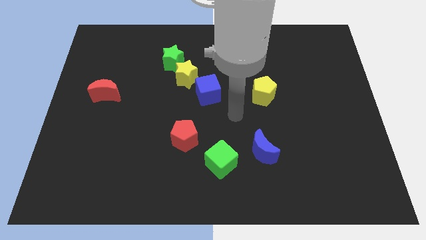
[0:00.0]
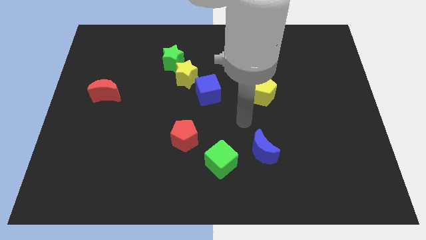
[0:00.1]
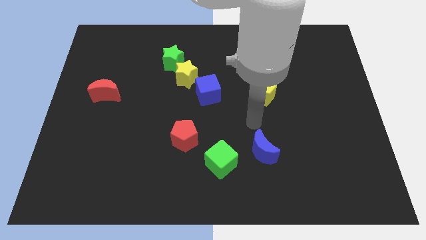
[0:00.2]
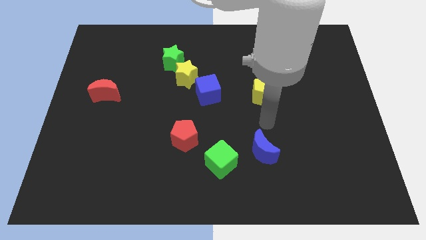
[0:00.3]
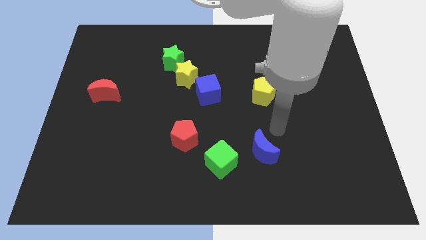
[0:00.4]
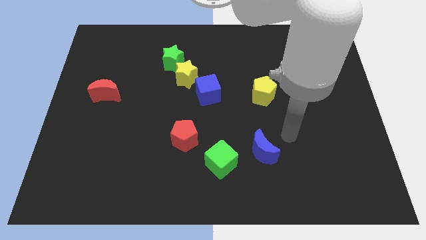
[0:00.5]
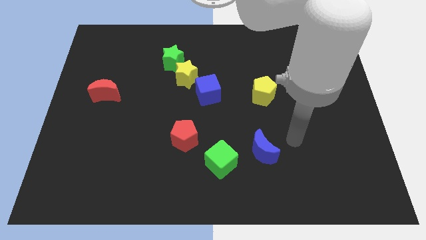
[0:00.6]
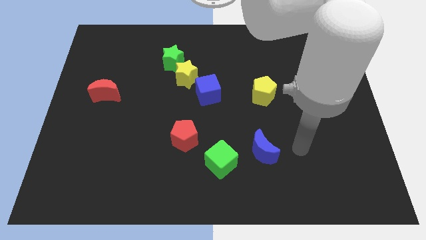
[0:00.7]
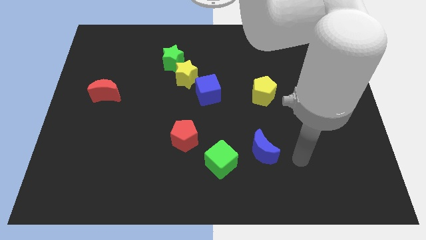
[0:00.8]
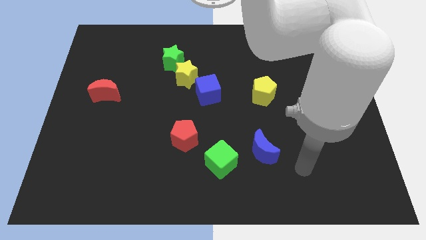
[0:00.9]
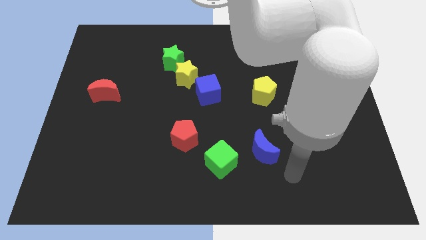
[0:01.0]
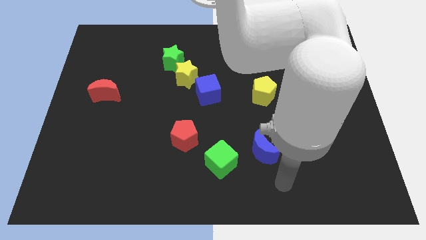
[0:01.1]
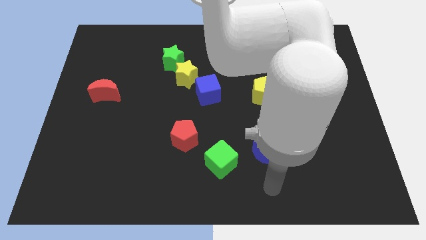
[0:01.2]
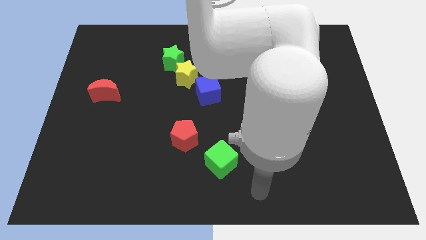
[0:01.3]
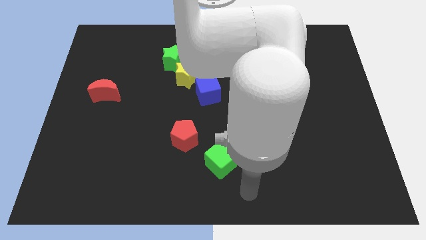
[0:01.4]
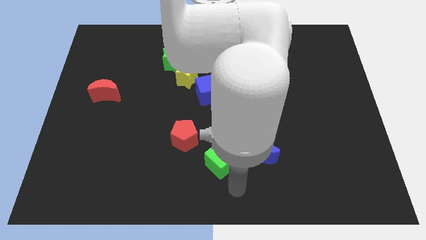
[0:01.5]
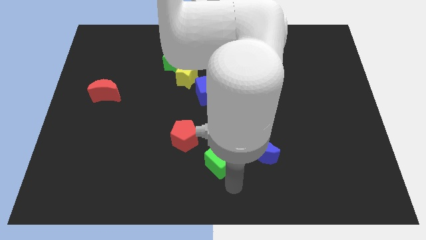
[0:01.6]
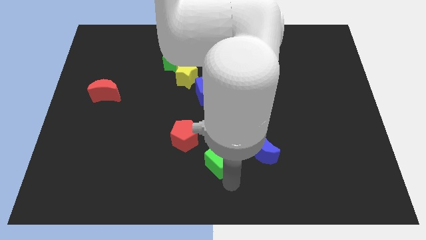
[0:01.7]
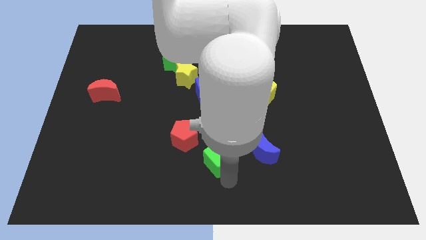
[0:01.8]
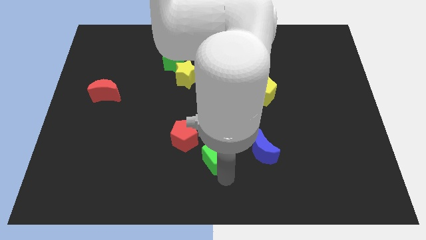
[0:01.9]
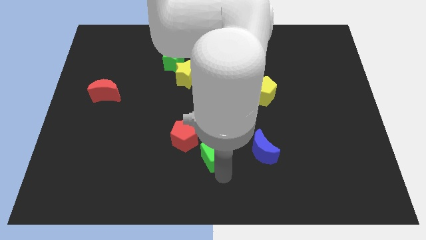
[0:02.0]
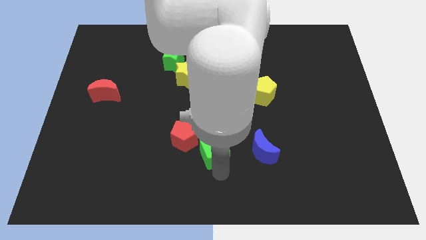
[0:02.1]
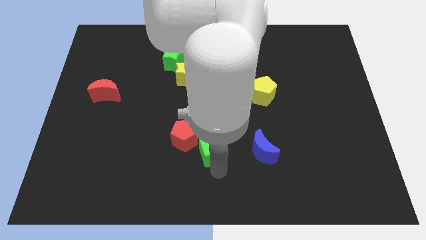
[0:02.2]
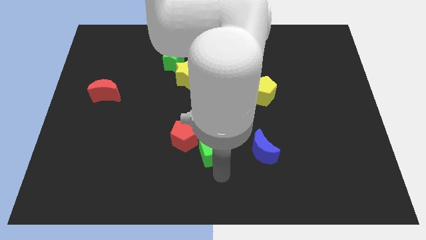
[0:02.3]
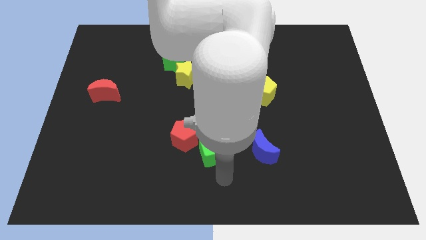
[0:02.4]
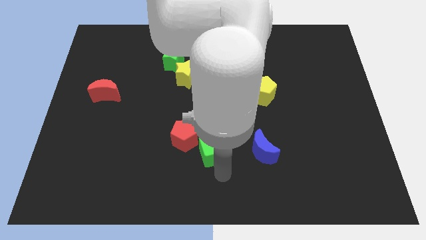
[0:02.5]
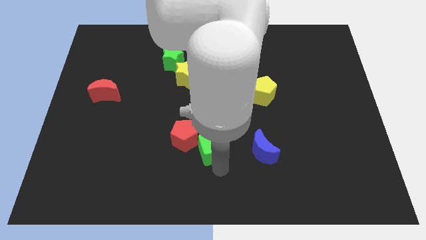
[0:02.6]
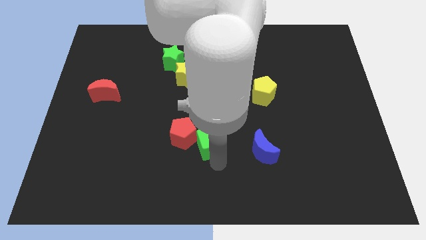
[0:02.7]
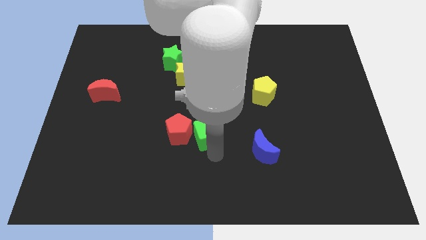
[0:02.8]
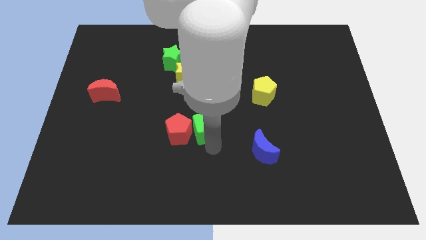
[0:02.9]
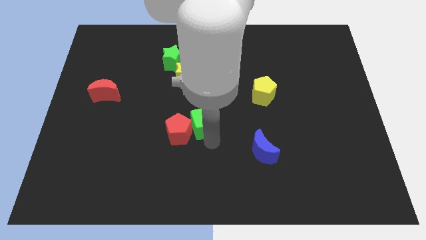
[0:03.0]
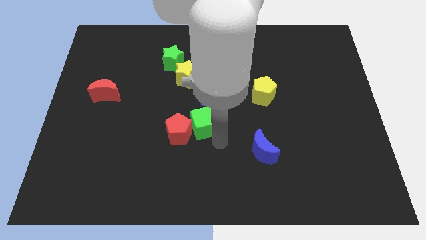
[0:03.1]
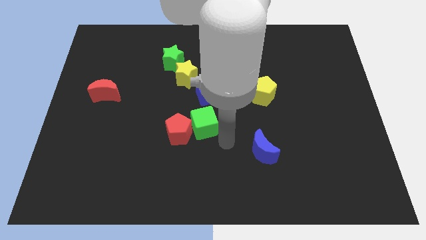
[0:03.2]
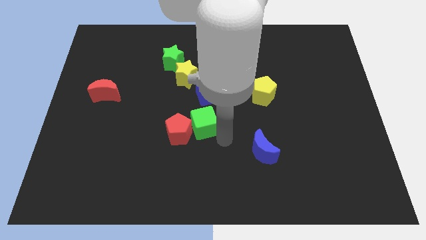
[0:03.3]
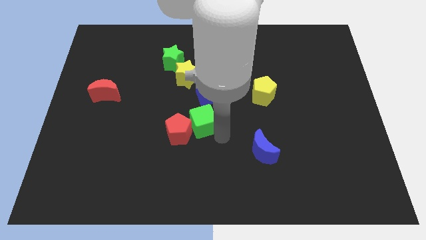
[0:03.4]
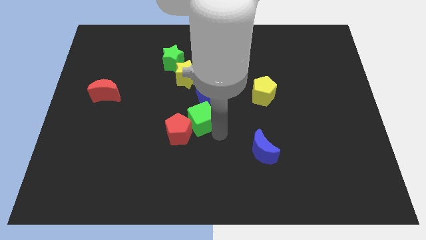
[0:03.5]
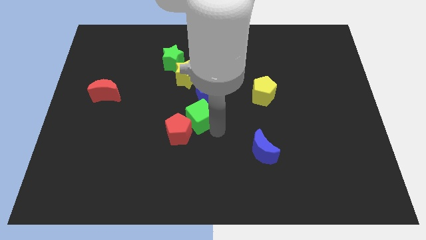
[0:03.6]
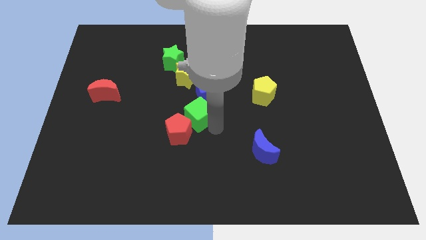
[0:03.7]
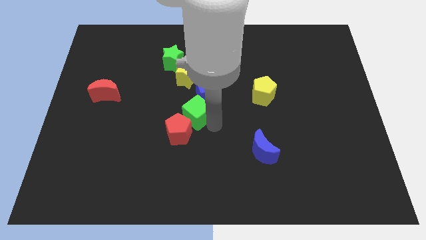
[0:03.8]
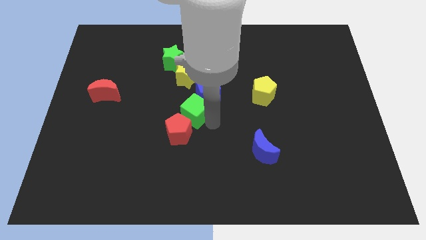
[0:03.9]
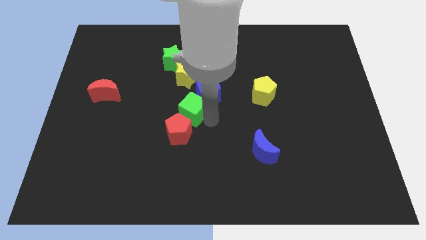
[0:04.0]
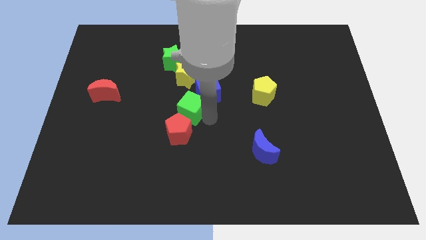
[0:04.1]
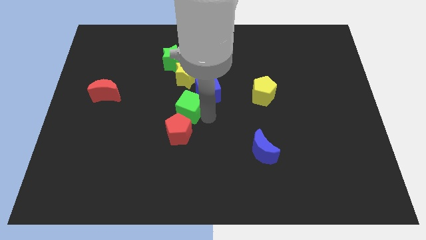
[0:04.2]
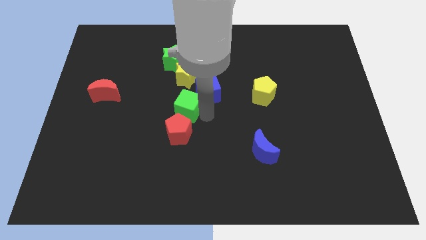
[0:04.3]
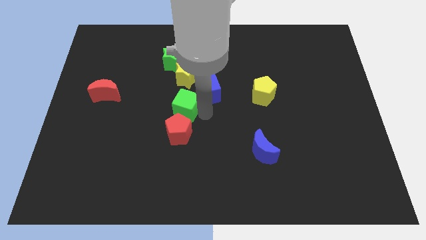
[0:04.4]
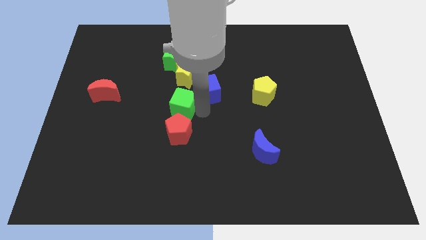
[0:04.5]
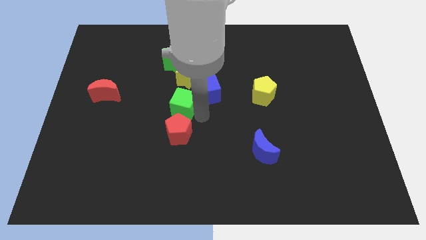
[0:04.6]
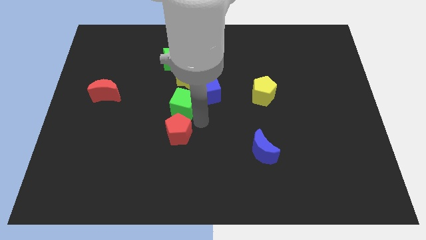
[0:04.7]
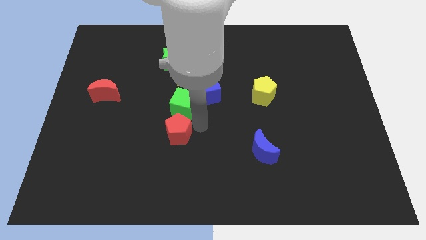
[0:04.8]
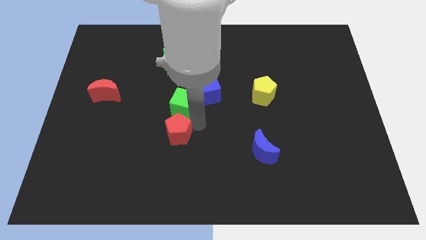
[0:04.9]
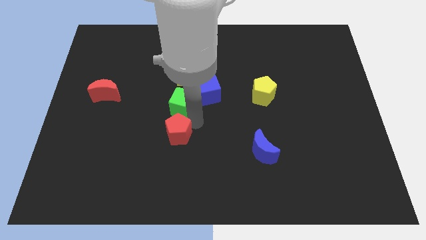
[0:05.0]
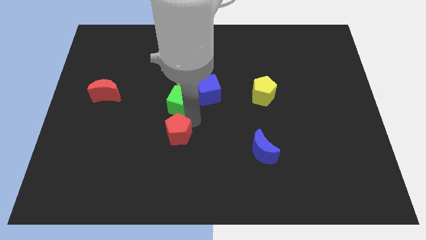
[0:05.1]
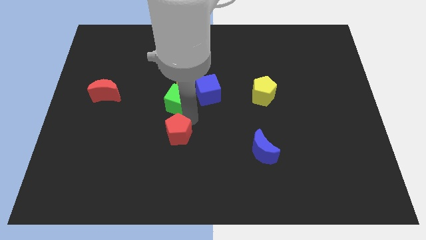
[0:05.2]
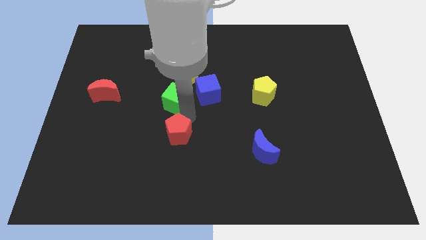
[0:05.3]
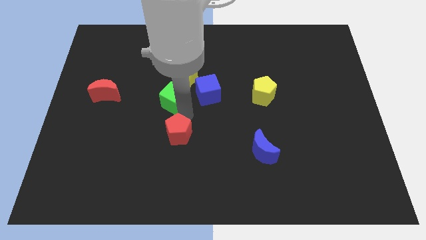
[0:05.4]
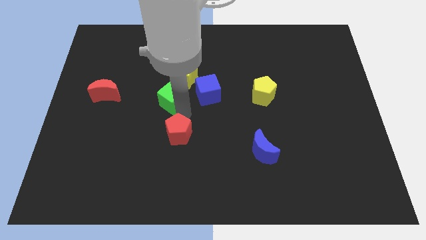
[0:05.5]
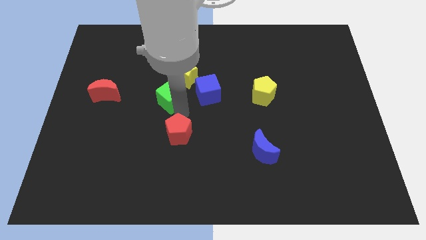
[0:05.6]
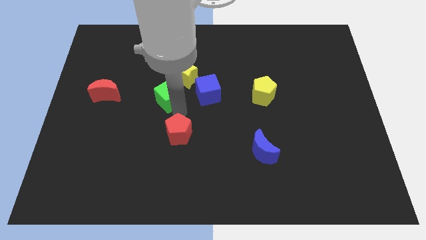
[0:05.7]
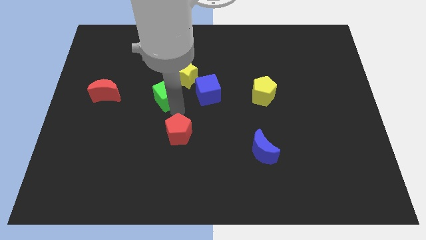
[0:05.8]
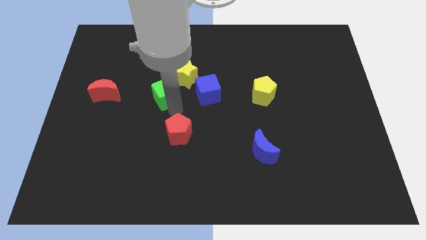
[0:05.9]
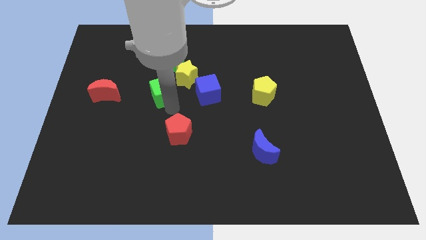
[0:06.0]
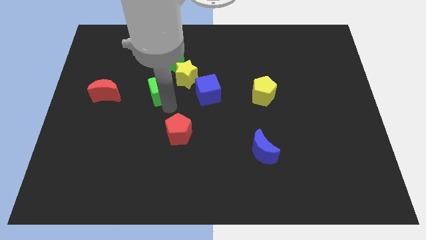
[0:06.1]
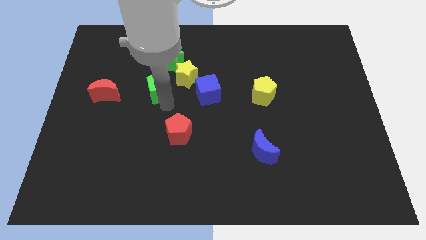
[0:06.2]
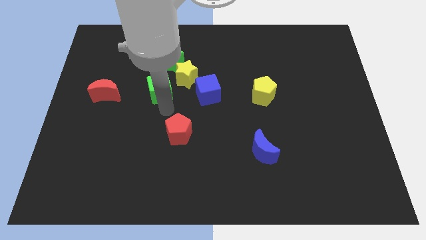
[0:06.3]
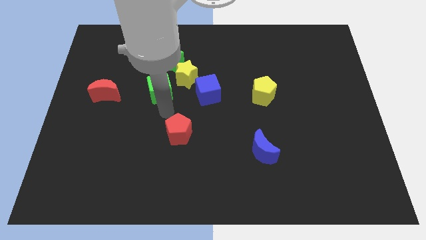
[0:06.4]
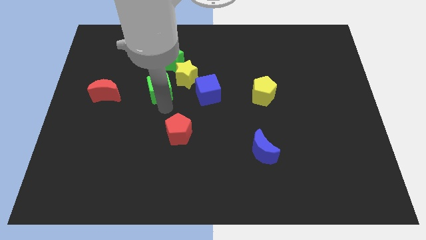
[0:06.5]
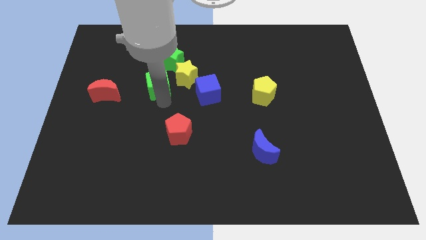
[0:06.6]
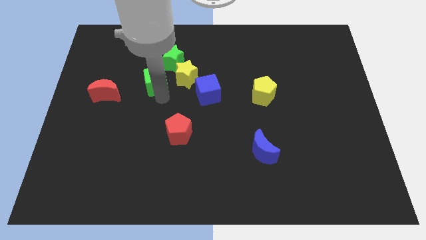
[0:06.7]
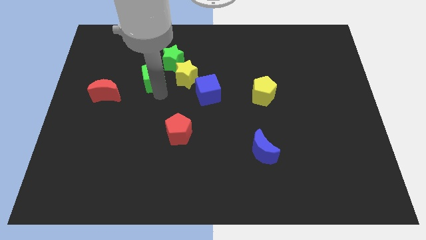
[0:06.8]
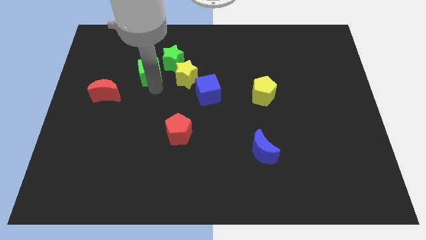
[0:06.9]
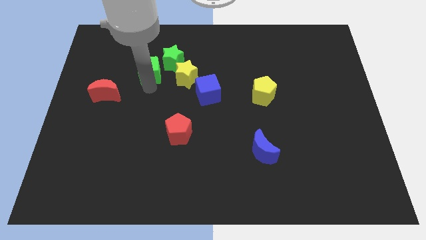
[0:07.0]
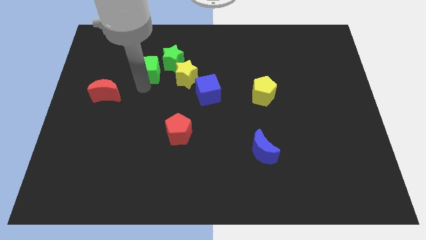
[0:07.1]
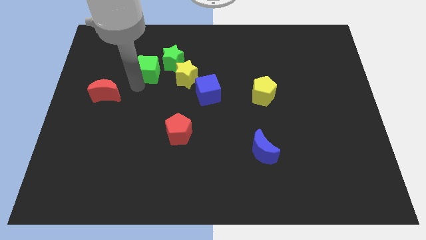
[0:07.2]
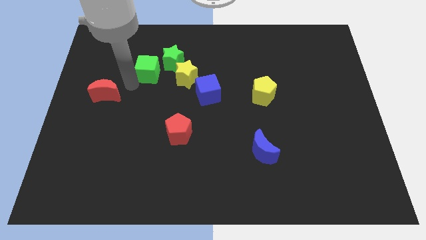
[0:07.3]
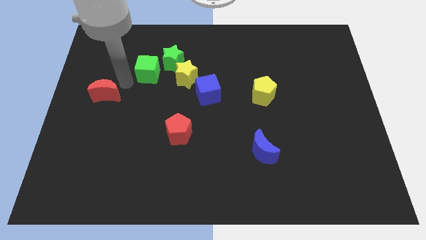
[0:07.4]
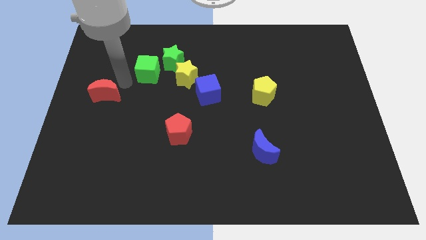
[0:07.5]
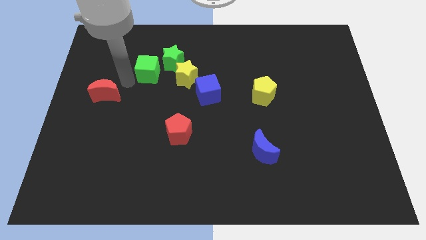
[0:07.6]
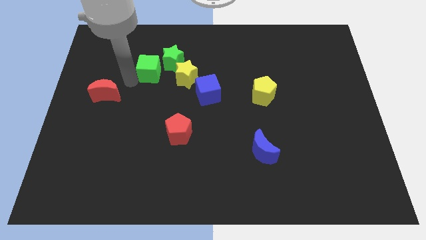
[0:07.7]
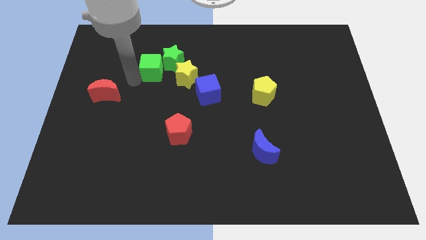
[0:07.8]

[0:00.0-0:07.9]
slide the green cube next to the green star
